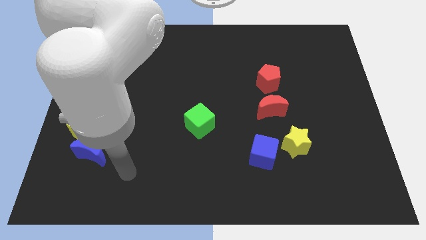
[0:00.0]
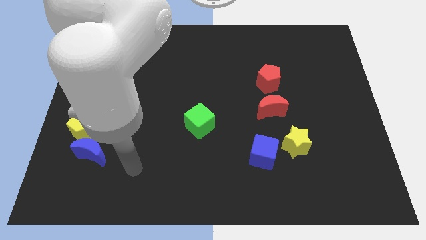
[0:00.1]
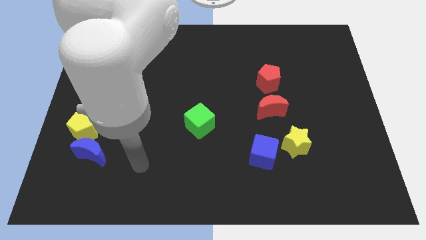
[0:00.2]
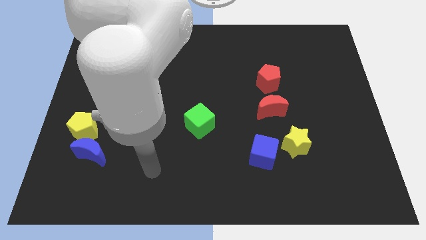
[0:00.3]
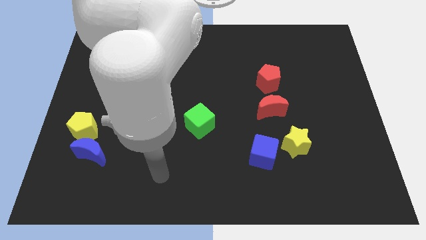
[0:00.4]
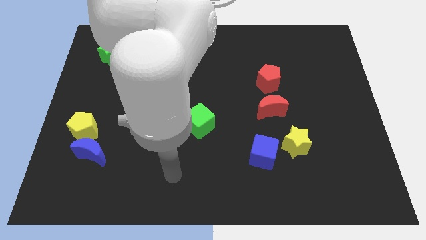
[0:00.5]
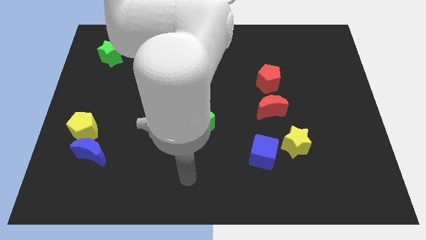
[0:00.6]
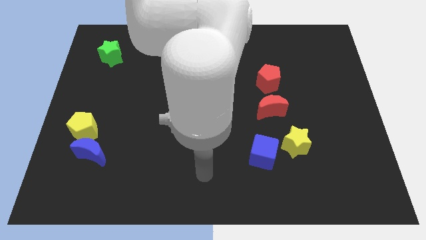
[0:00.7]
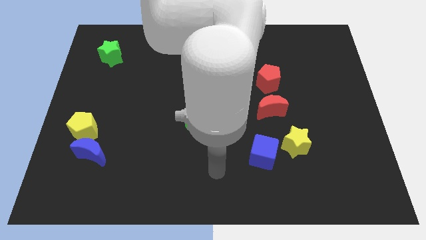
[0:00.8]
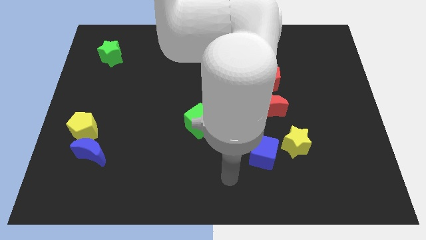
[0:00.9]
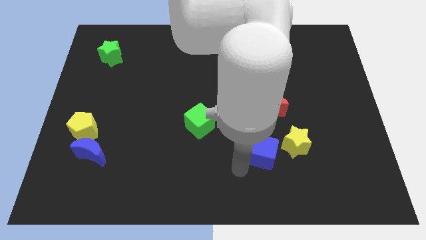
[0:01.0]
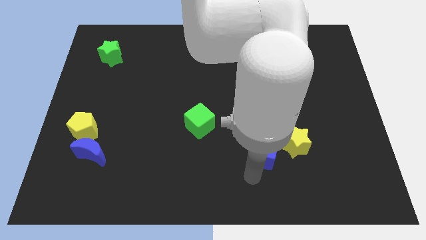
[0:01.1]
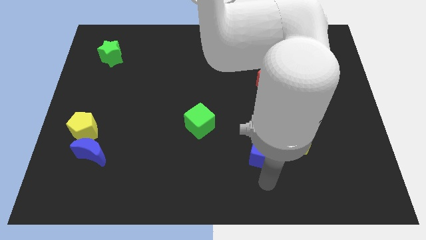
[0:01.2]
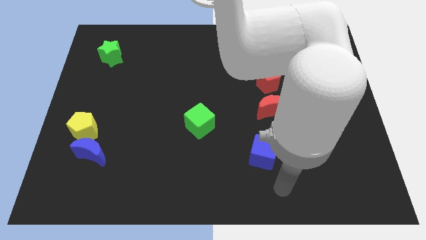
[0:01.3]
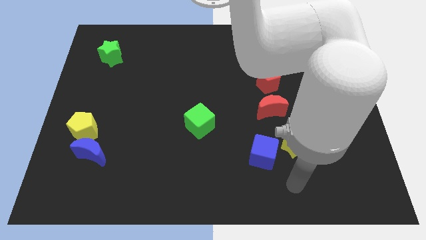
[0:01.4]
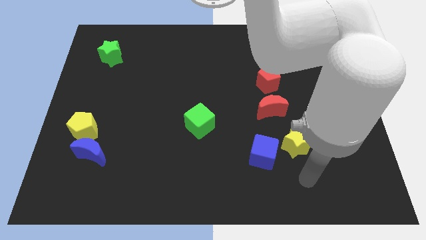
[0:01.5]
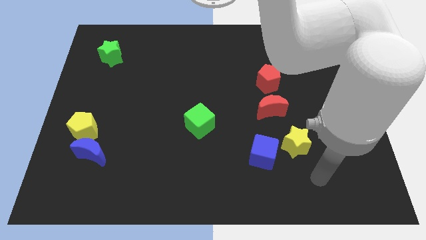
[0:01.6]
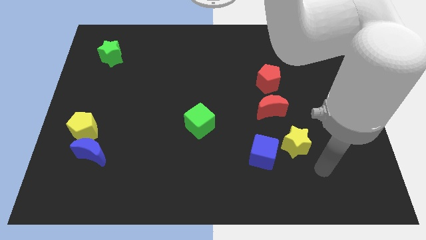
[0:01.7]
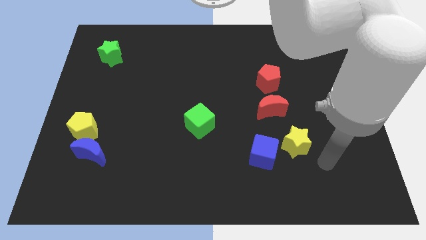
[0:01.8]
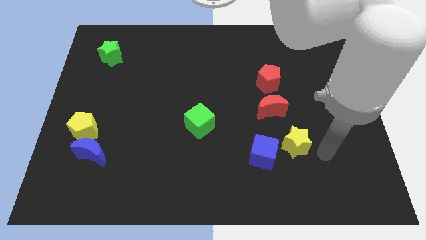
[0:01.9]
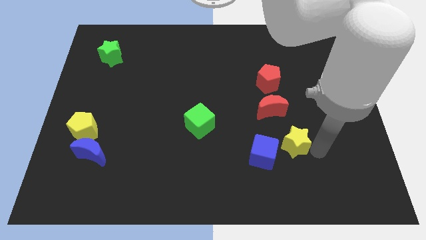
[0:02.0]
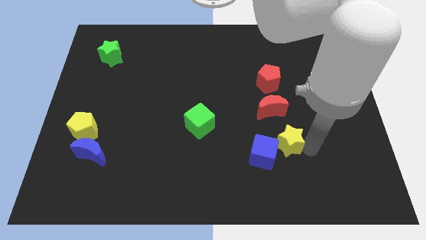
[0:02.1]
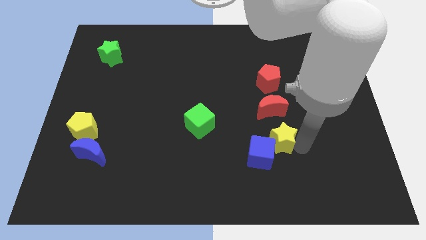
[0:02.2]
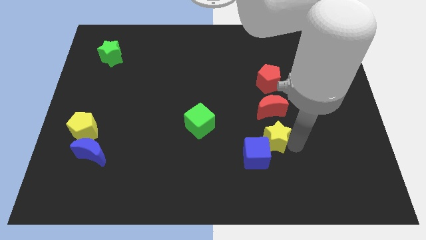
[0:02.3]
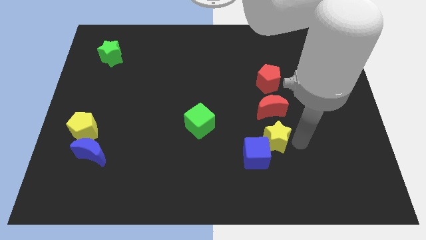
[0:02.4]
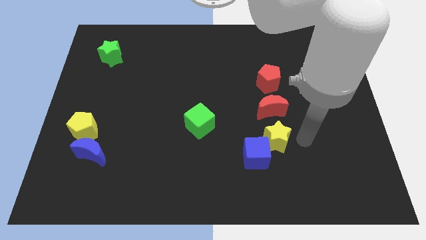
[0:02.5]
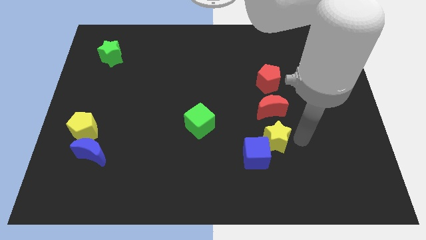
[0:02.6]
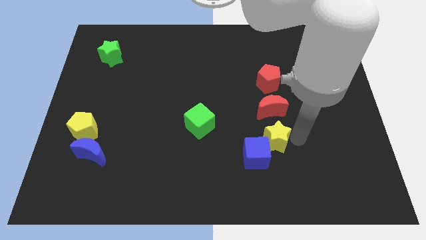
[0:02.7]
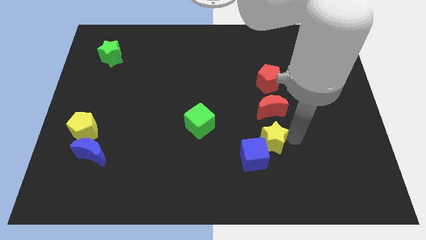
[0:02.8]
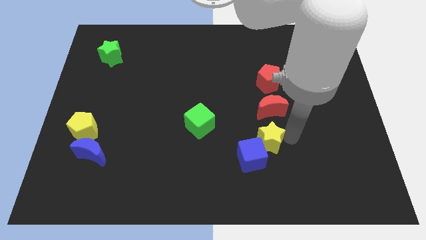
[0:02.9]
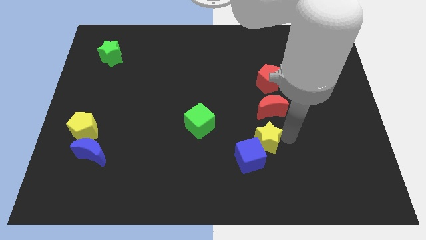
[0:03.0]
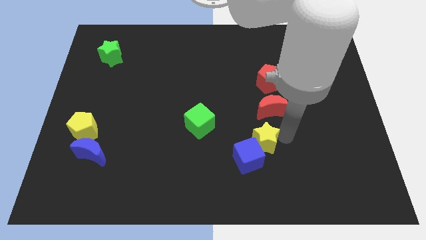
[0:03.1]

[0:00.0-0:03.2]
slightly push the yellow star to the left

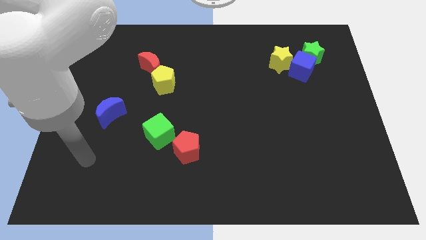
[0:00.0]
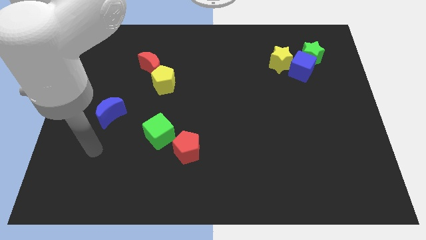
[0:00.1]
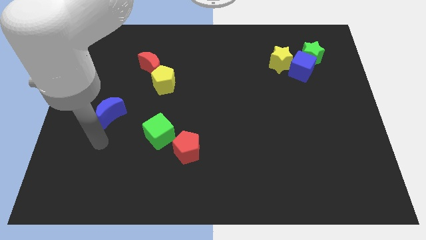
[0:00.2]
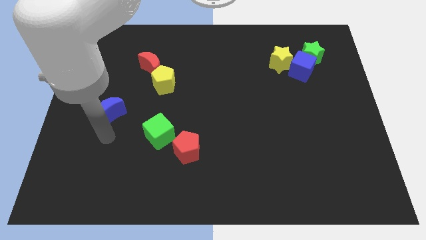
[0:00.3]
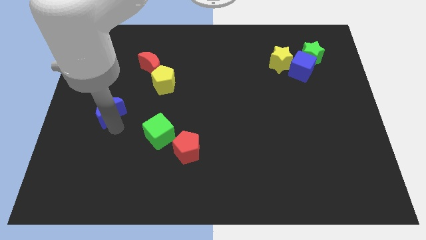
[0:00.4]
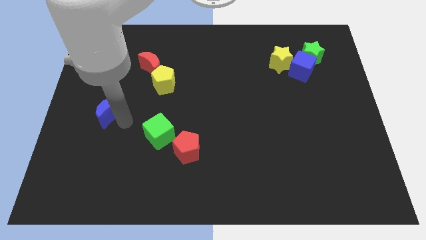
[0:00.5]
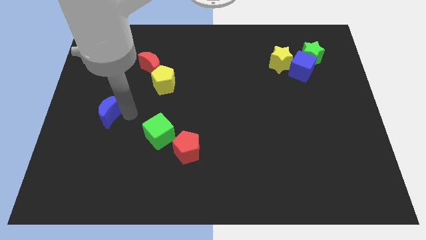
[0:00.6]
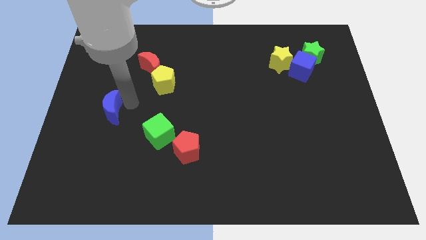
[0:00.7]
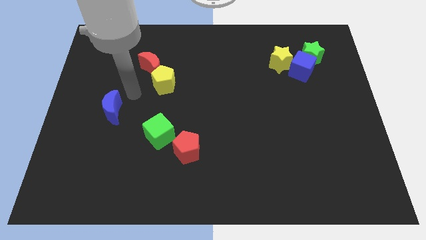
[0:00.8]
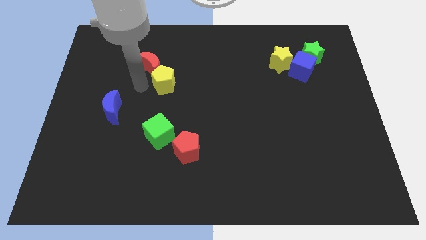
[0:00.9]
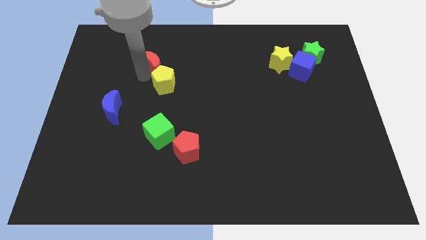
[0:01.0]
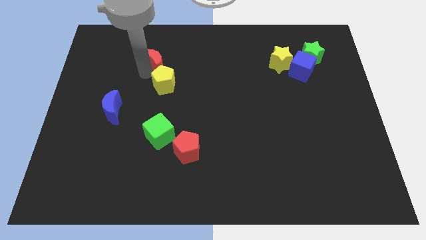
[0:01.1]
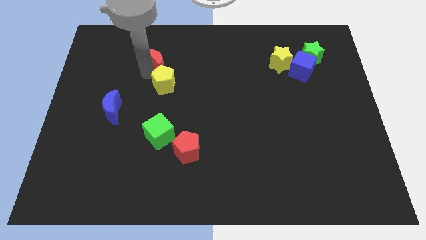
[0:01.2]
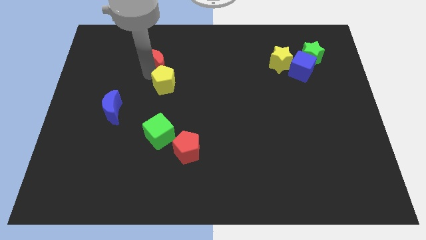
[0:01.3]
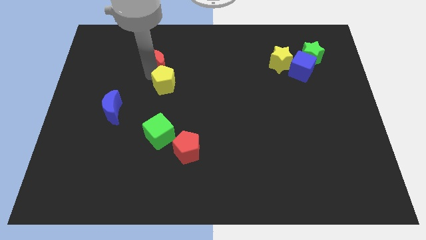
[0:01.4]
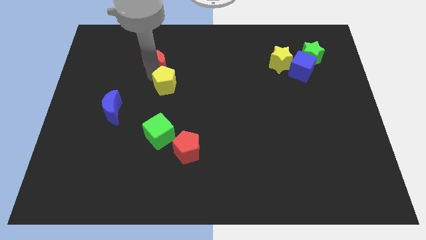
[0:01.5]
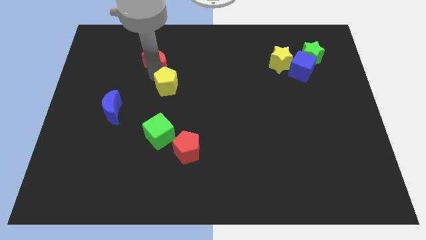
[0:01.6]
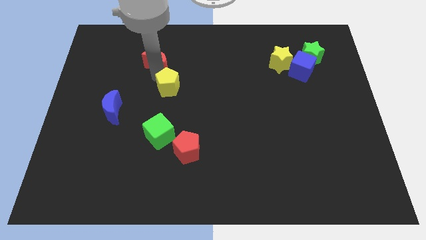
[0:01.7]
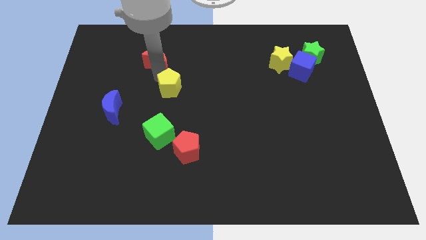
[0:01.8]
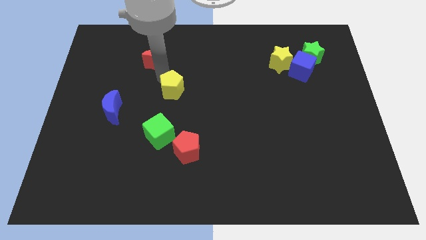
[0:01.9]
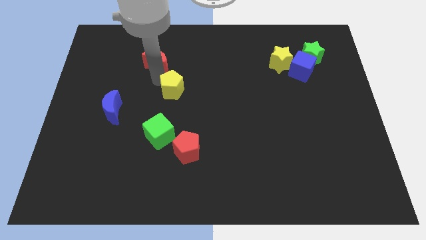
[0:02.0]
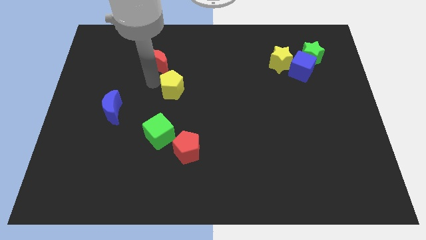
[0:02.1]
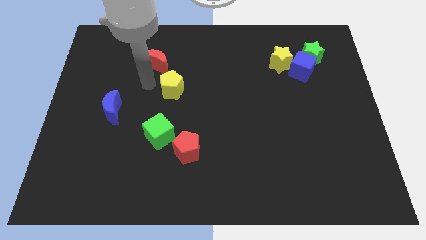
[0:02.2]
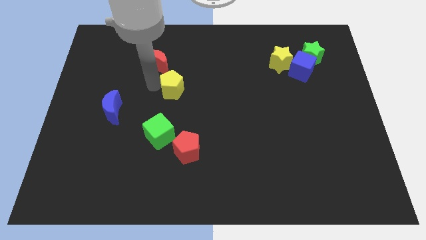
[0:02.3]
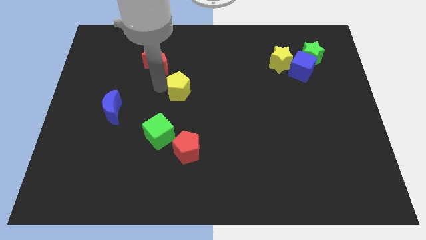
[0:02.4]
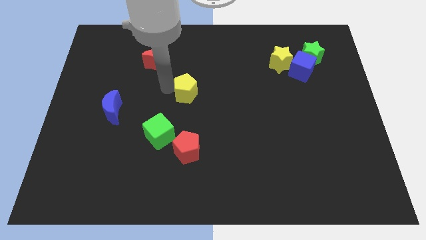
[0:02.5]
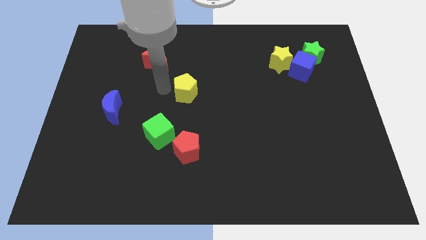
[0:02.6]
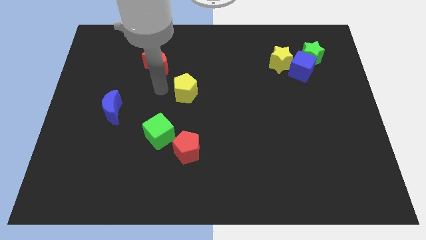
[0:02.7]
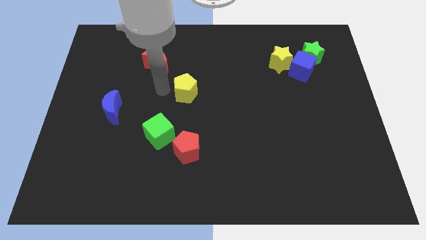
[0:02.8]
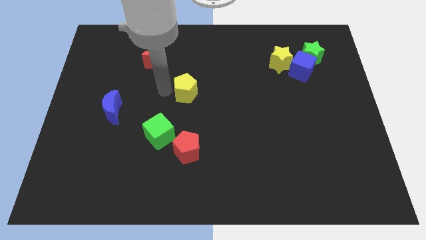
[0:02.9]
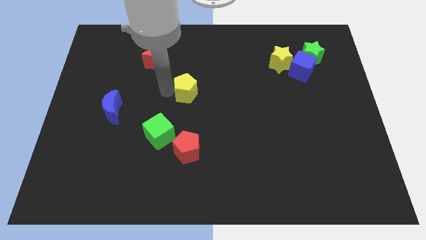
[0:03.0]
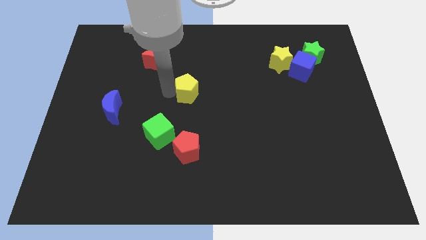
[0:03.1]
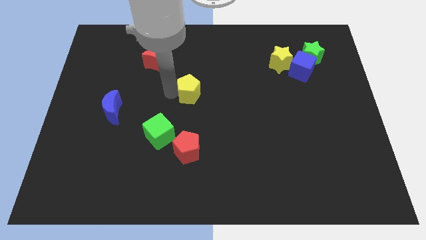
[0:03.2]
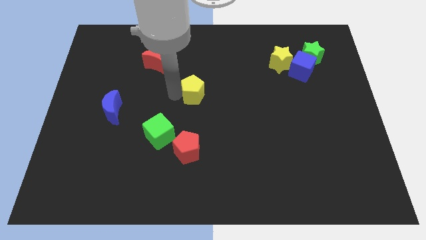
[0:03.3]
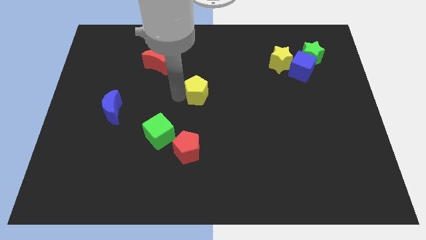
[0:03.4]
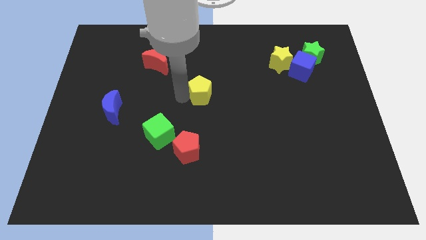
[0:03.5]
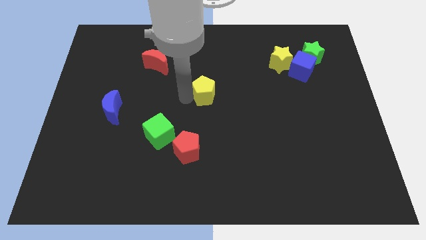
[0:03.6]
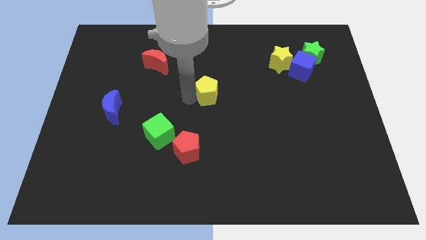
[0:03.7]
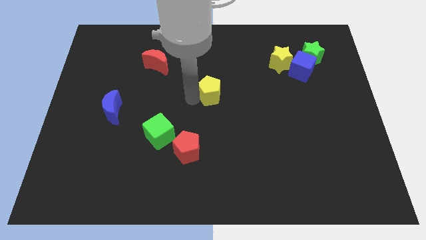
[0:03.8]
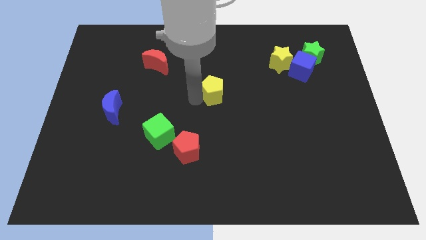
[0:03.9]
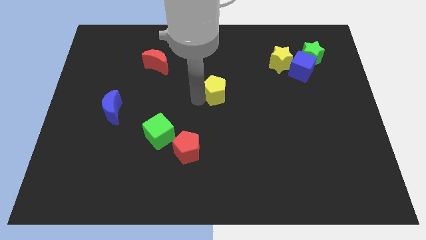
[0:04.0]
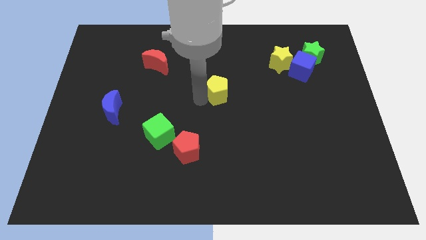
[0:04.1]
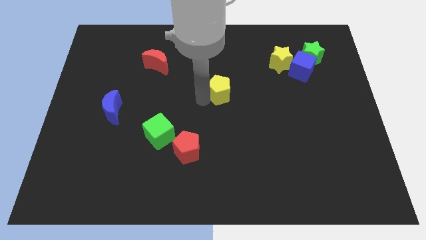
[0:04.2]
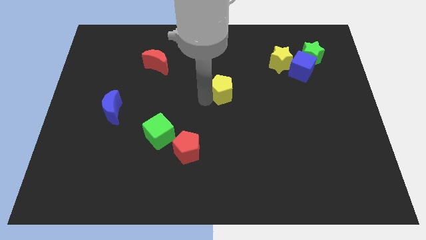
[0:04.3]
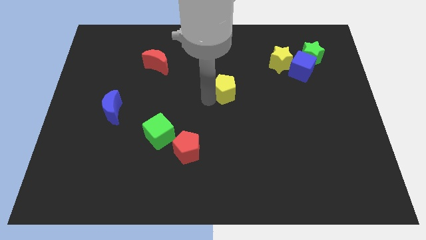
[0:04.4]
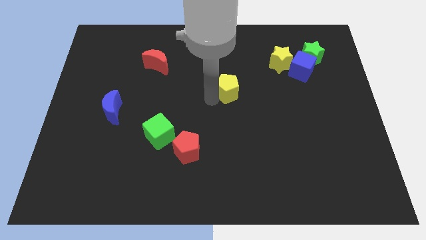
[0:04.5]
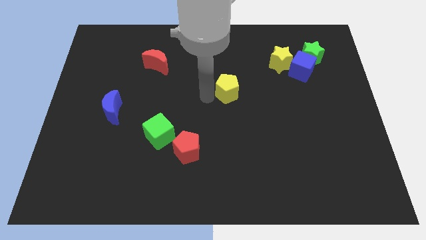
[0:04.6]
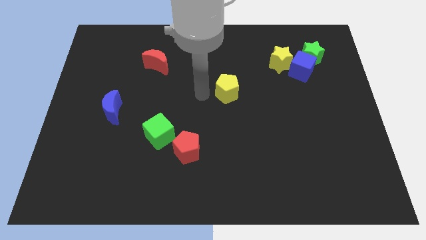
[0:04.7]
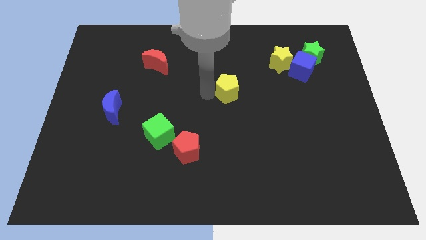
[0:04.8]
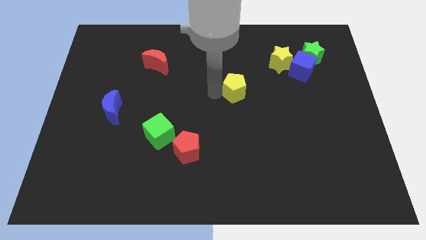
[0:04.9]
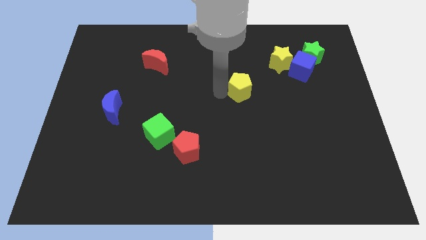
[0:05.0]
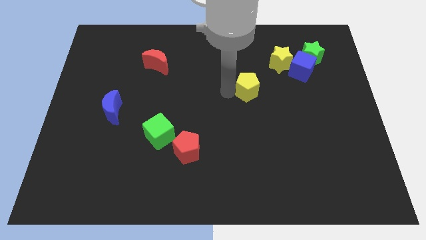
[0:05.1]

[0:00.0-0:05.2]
move the yellow pentagon right
